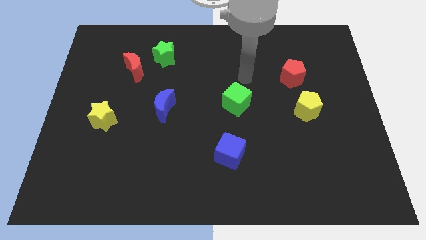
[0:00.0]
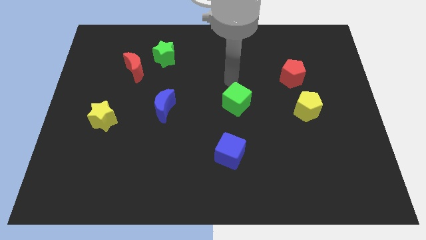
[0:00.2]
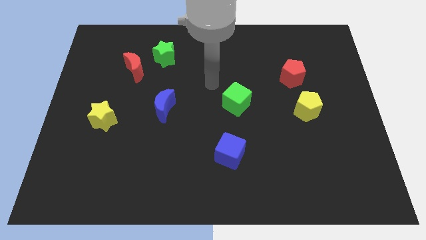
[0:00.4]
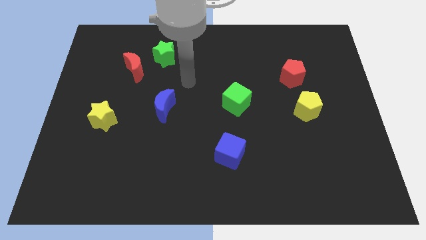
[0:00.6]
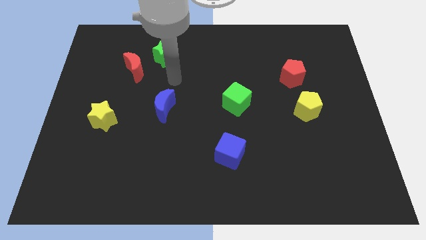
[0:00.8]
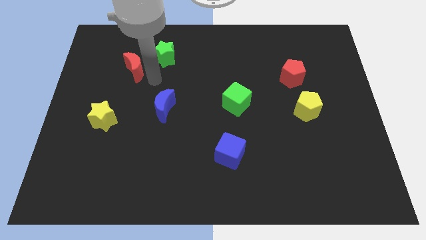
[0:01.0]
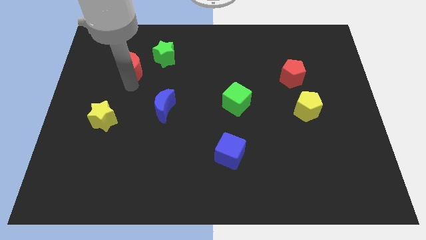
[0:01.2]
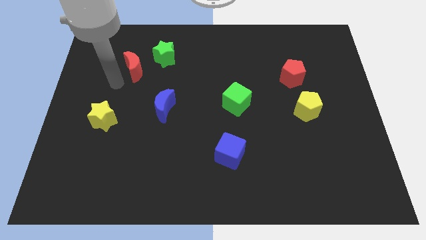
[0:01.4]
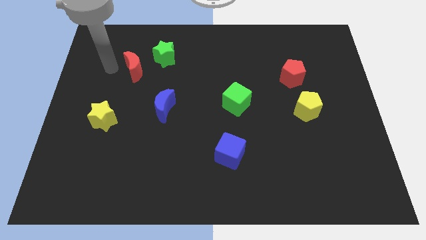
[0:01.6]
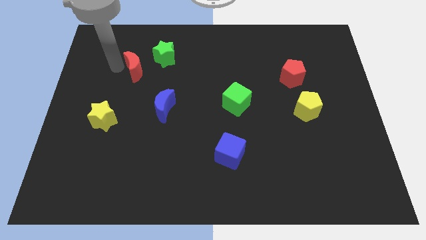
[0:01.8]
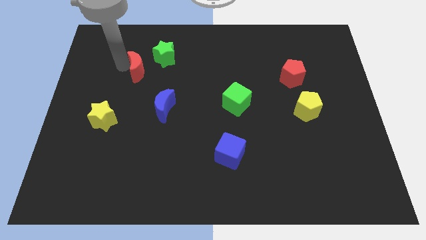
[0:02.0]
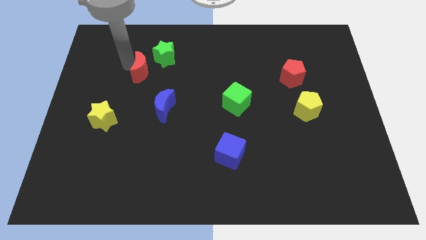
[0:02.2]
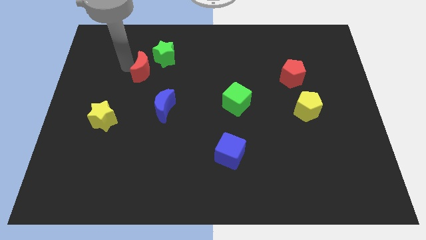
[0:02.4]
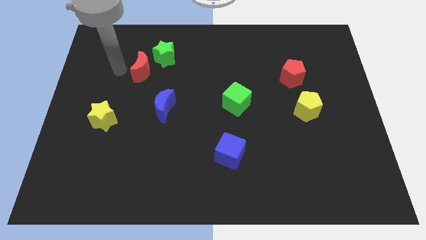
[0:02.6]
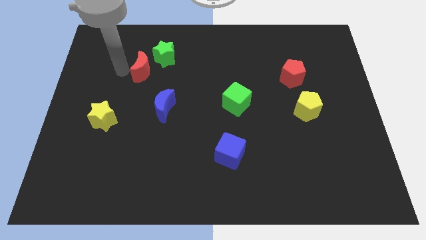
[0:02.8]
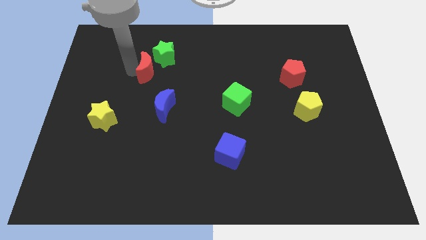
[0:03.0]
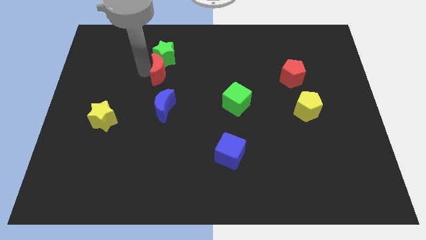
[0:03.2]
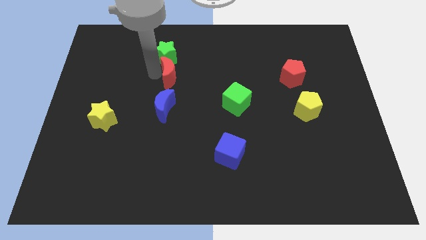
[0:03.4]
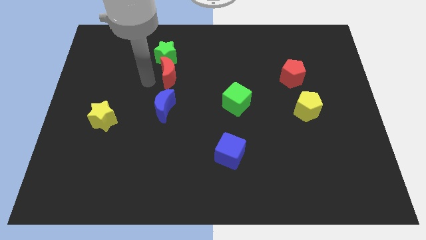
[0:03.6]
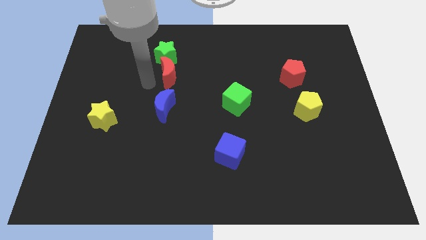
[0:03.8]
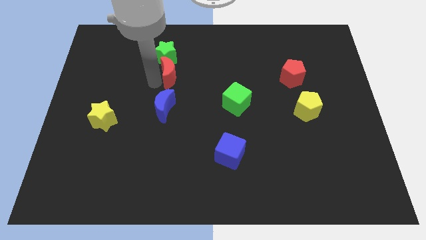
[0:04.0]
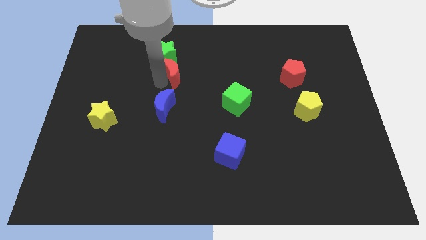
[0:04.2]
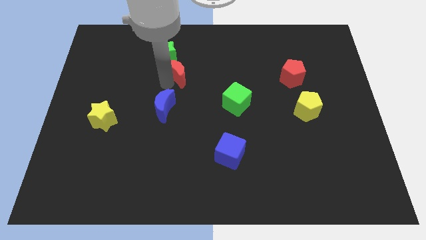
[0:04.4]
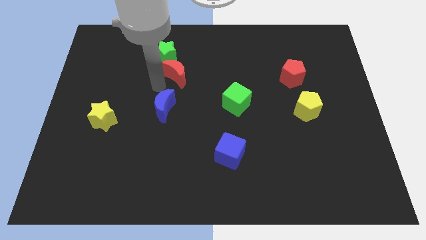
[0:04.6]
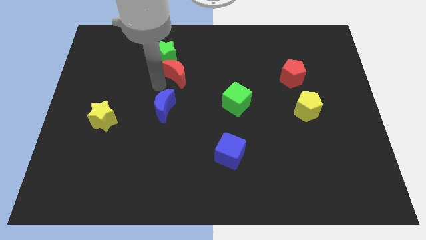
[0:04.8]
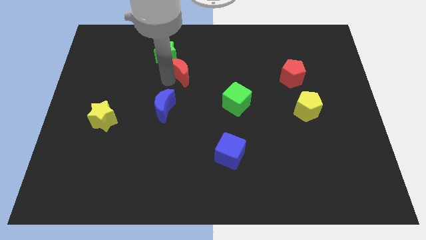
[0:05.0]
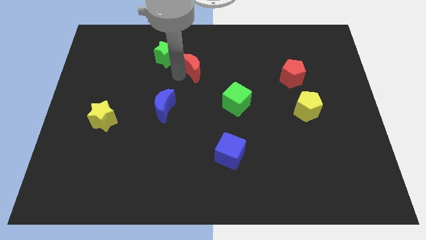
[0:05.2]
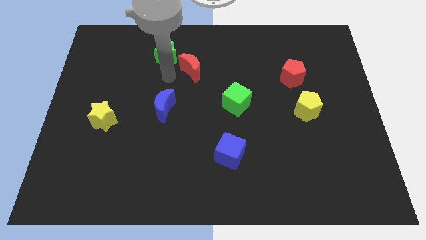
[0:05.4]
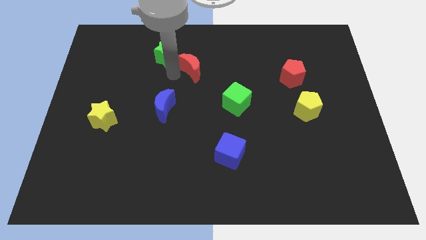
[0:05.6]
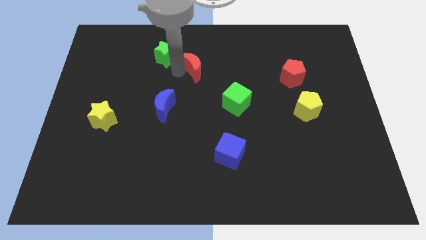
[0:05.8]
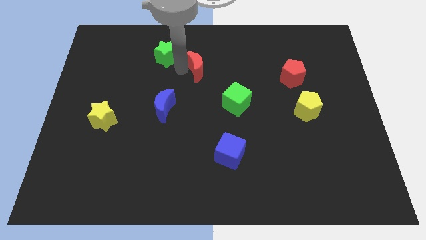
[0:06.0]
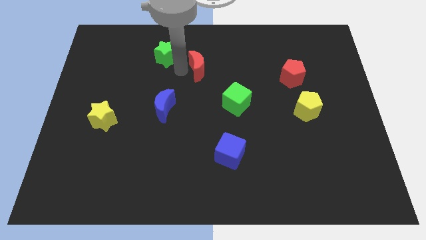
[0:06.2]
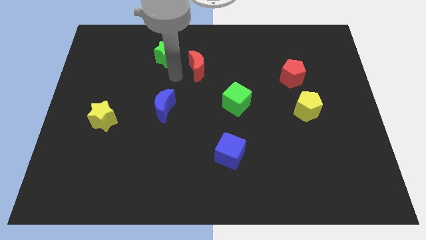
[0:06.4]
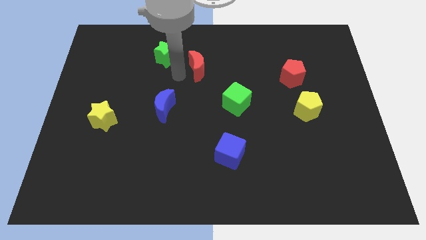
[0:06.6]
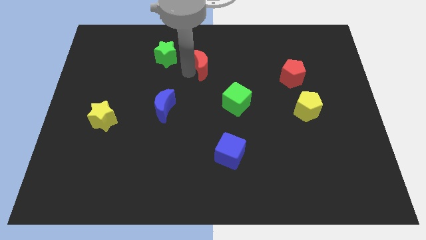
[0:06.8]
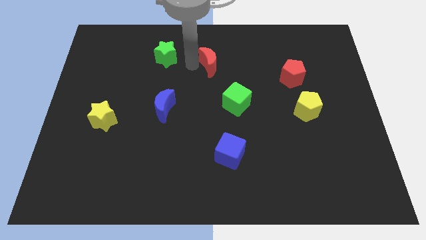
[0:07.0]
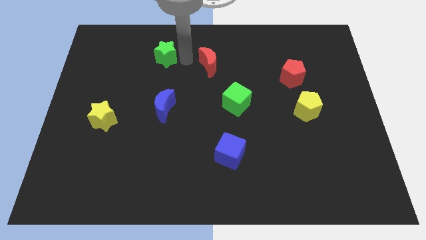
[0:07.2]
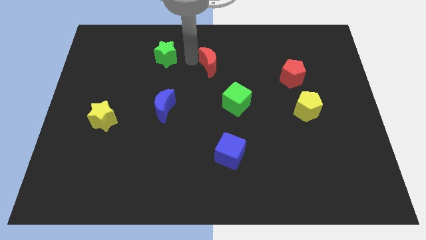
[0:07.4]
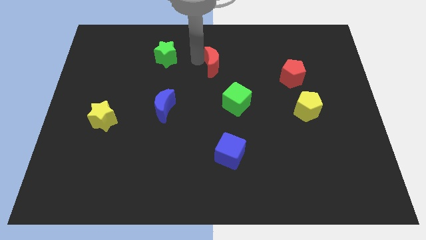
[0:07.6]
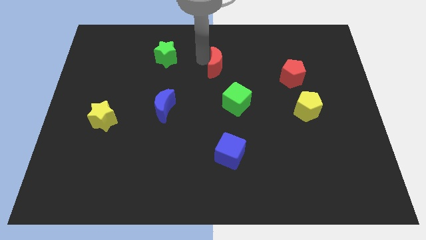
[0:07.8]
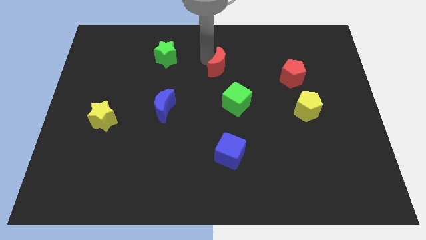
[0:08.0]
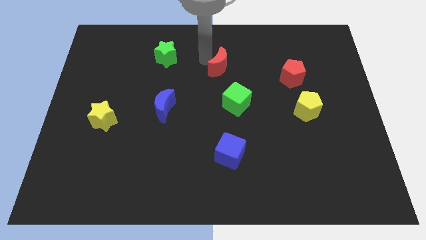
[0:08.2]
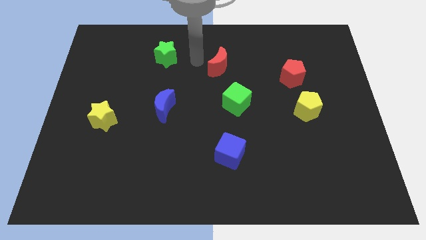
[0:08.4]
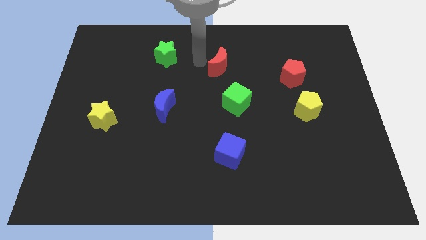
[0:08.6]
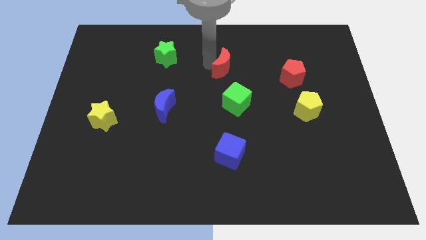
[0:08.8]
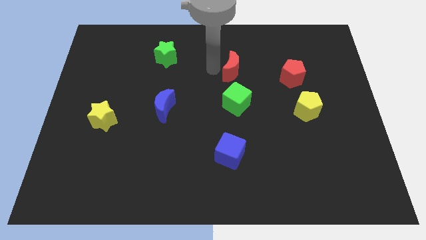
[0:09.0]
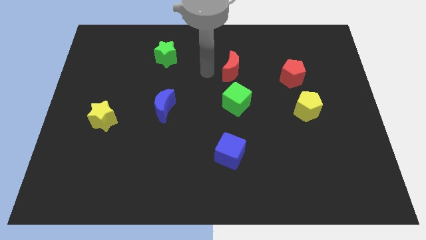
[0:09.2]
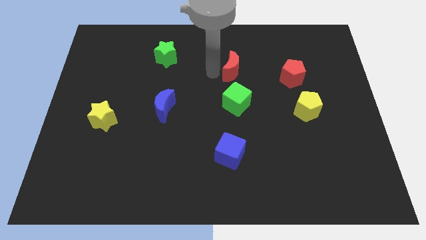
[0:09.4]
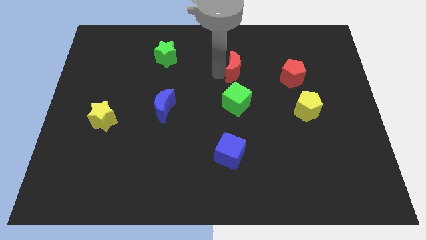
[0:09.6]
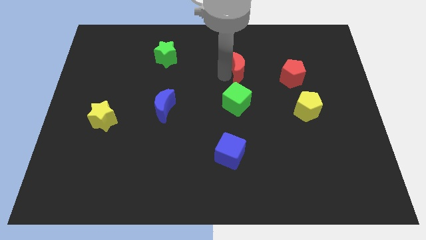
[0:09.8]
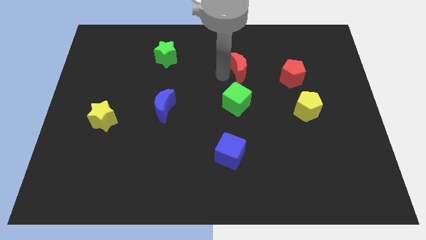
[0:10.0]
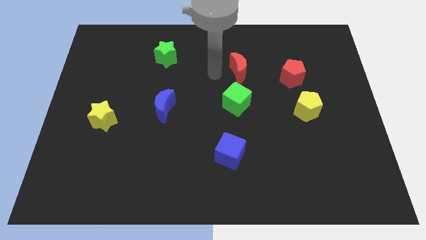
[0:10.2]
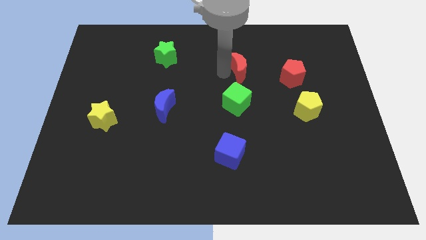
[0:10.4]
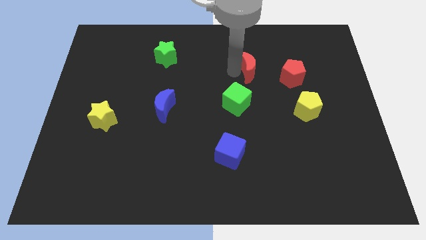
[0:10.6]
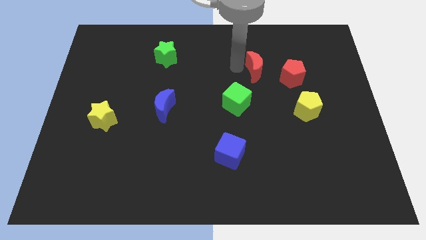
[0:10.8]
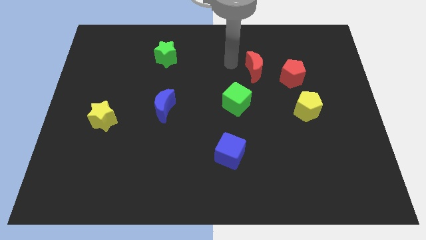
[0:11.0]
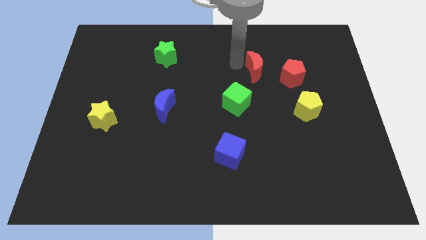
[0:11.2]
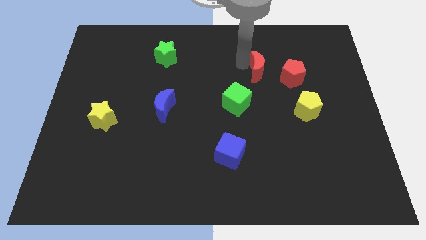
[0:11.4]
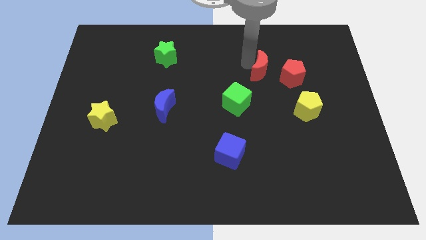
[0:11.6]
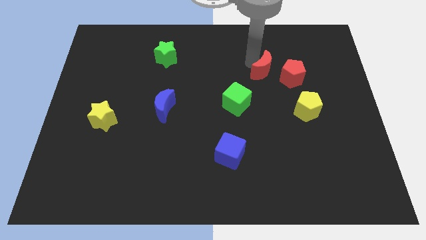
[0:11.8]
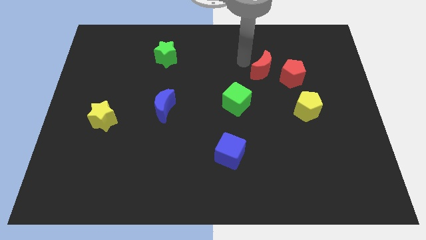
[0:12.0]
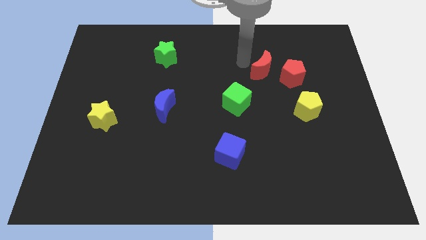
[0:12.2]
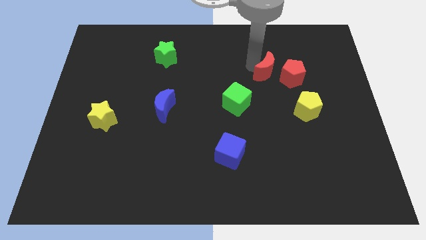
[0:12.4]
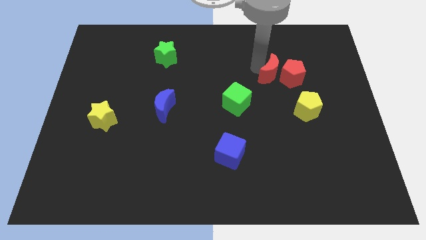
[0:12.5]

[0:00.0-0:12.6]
slide the red moon towards the red pentagon

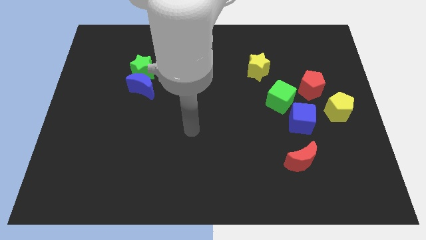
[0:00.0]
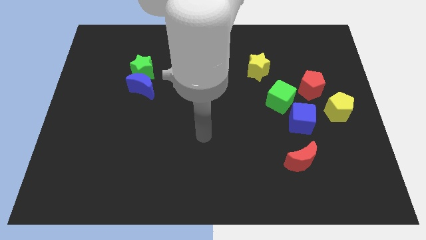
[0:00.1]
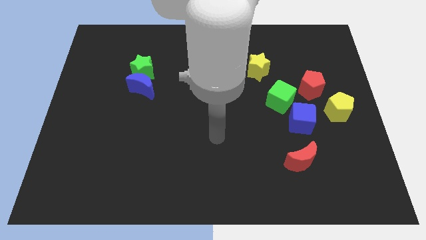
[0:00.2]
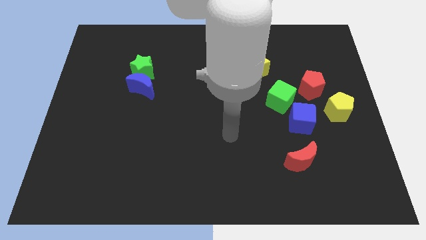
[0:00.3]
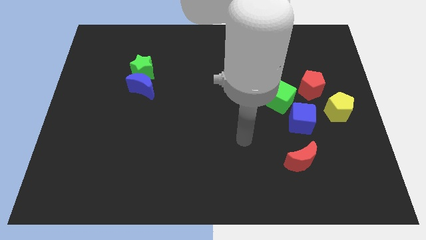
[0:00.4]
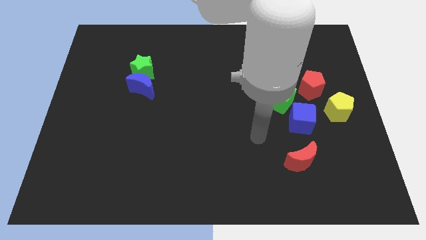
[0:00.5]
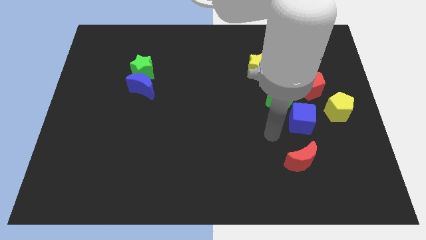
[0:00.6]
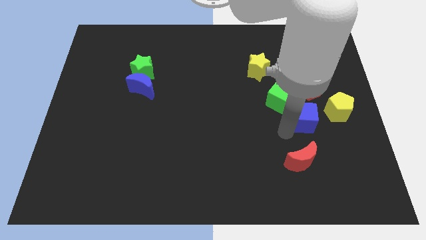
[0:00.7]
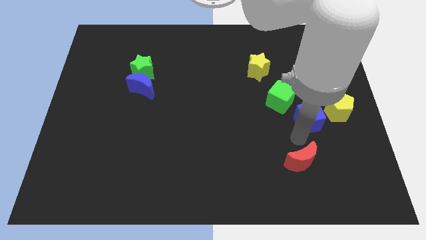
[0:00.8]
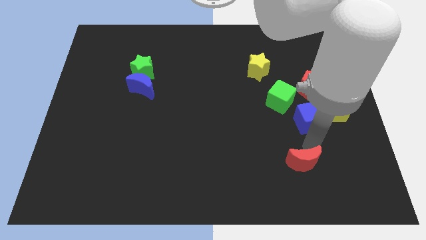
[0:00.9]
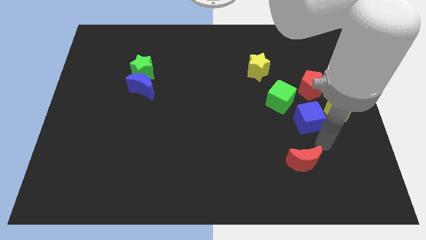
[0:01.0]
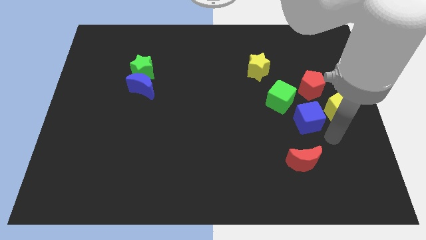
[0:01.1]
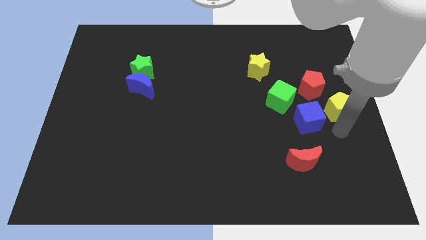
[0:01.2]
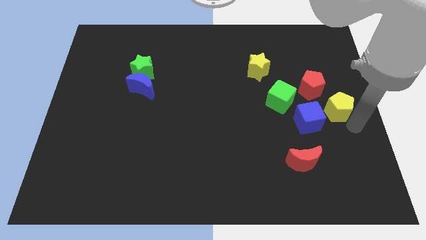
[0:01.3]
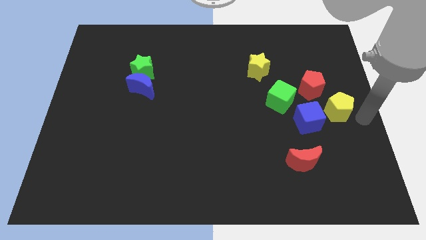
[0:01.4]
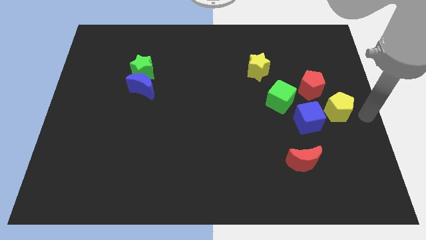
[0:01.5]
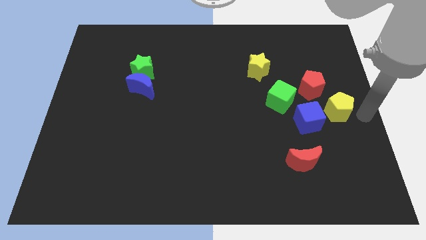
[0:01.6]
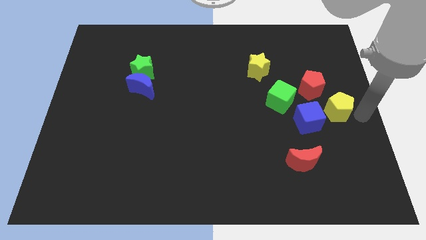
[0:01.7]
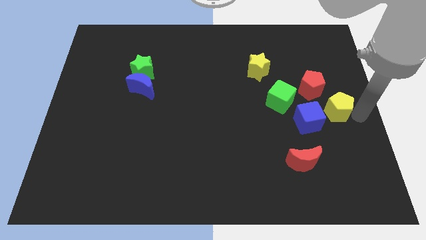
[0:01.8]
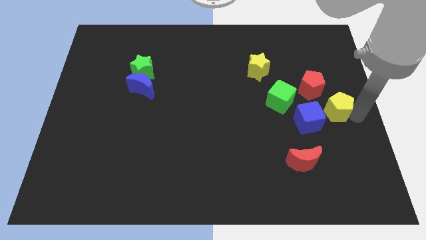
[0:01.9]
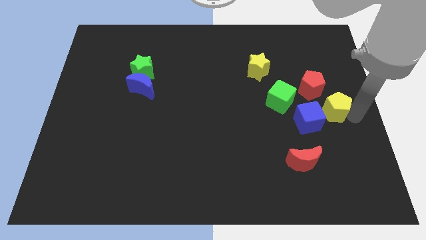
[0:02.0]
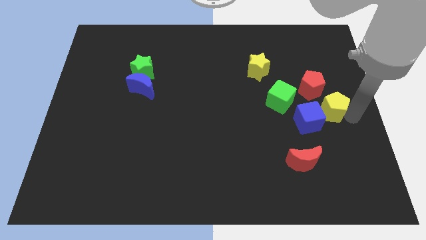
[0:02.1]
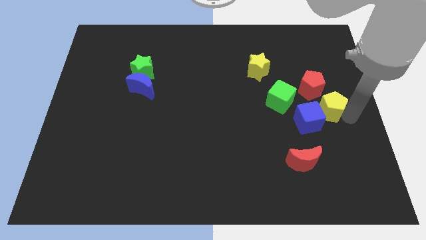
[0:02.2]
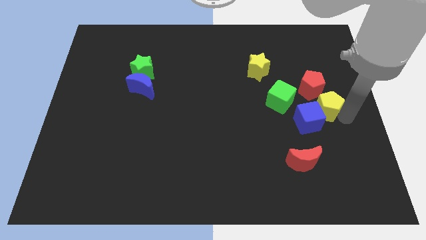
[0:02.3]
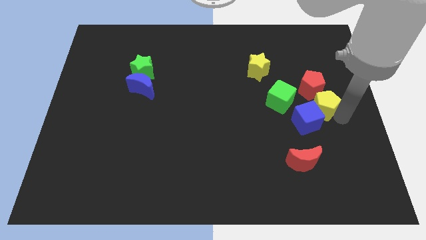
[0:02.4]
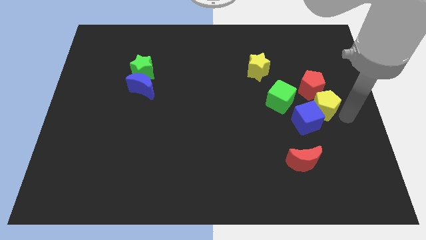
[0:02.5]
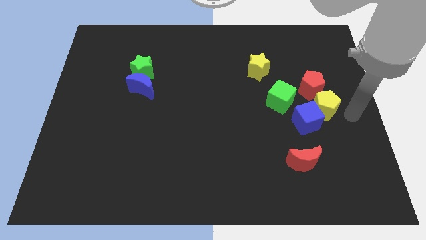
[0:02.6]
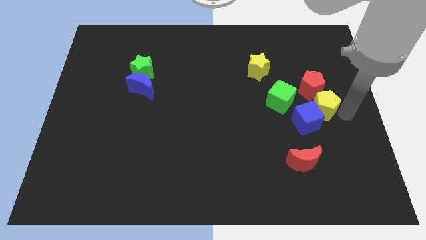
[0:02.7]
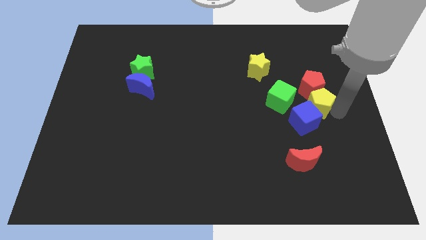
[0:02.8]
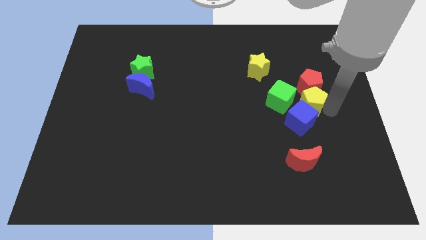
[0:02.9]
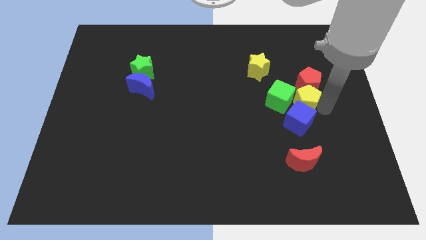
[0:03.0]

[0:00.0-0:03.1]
slide the yellow pentagon towards the green cube
